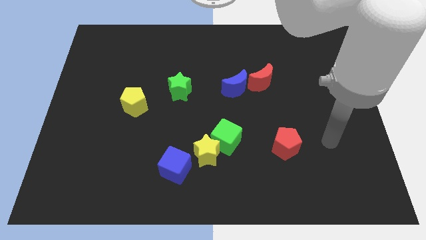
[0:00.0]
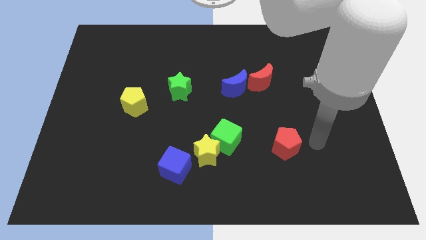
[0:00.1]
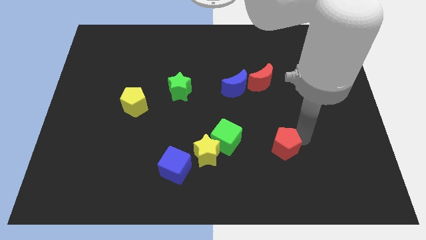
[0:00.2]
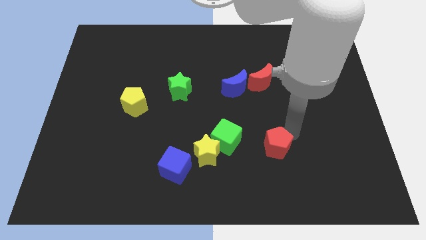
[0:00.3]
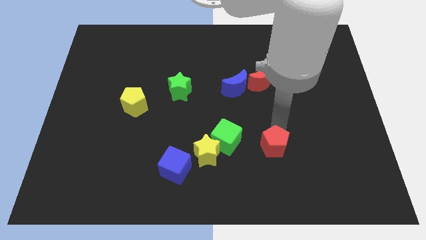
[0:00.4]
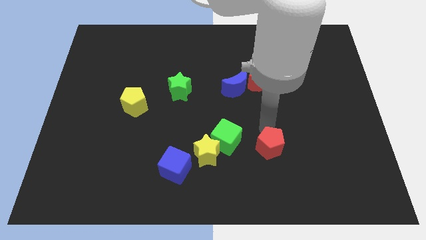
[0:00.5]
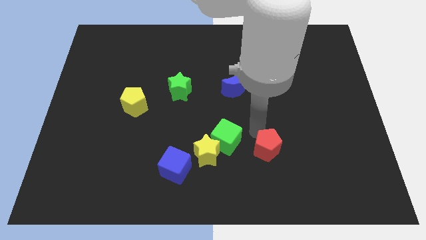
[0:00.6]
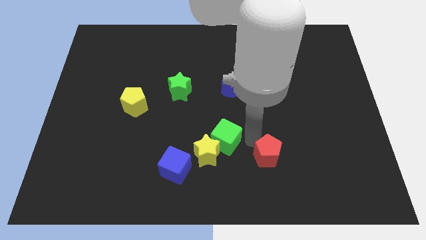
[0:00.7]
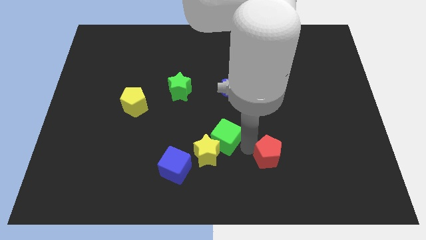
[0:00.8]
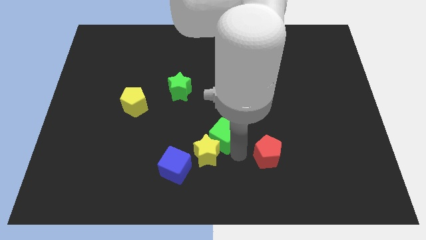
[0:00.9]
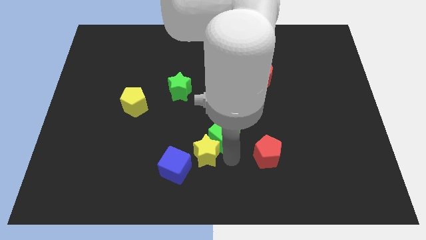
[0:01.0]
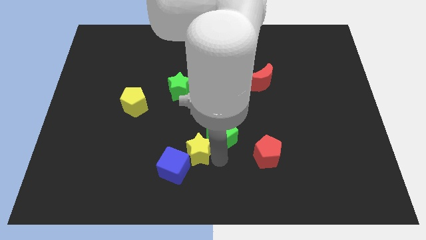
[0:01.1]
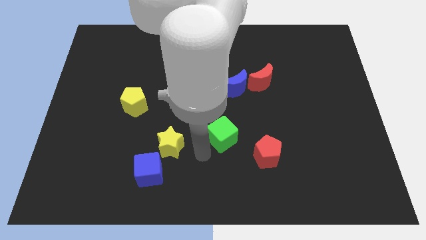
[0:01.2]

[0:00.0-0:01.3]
move the green cube away from the yellow star

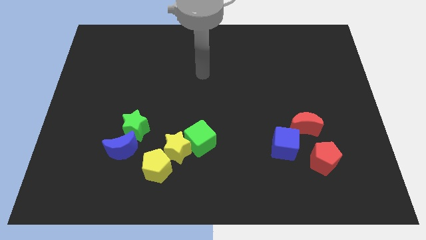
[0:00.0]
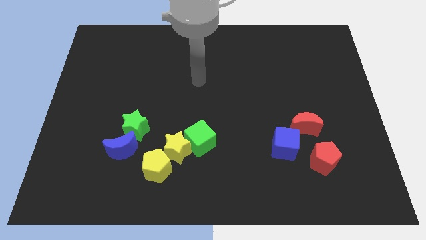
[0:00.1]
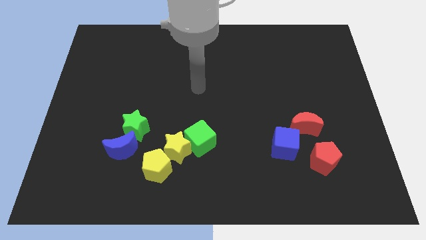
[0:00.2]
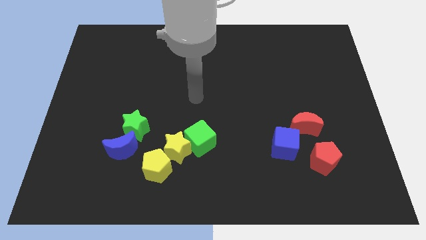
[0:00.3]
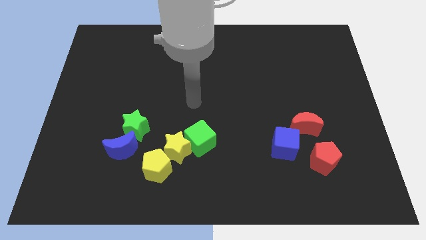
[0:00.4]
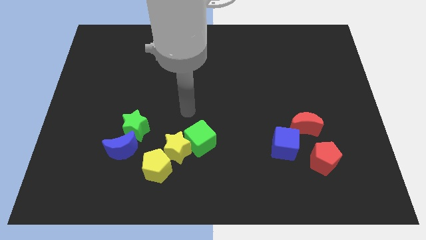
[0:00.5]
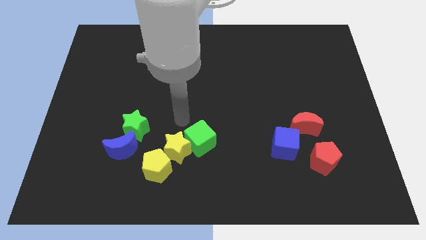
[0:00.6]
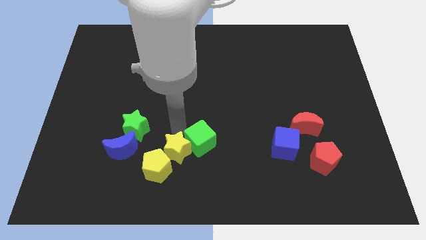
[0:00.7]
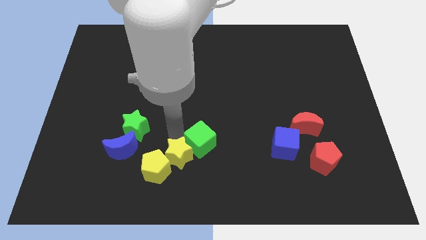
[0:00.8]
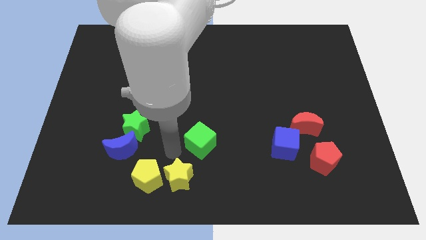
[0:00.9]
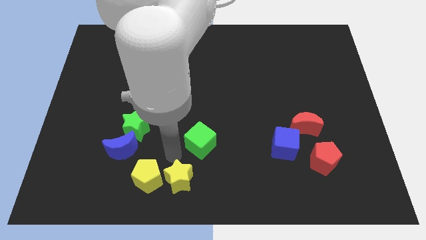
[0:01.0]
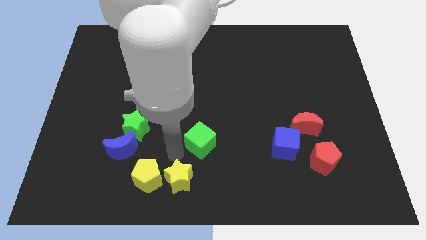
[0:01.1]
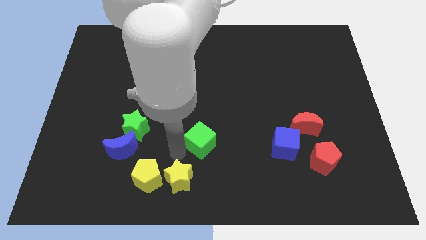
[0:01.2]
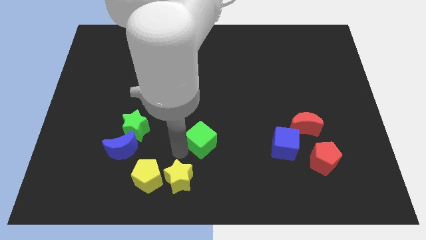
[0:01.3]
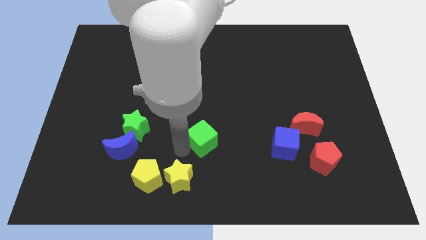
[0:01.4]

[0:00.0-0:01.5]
pull the green cube apart from the yellow star

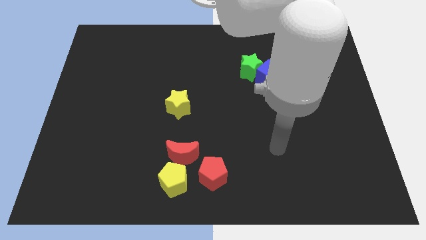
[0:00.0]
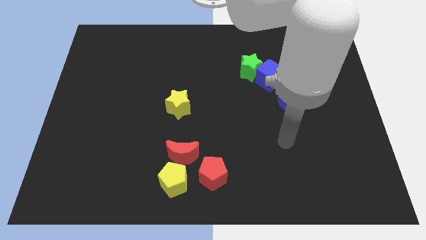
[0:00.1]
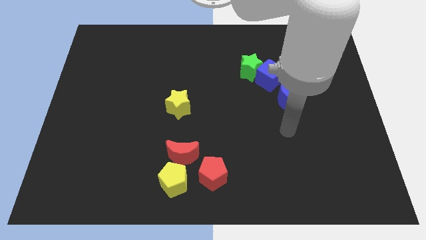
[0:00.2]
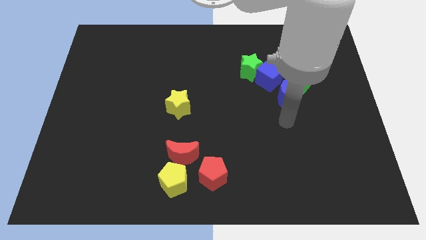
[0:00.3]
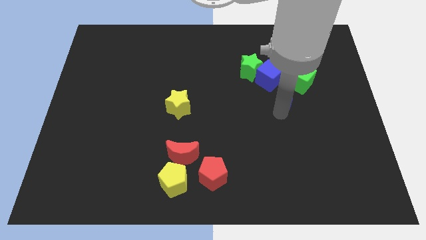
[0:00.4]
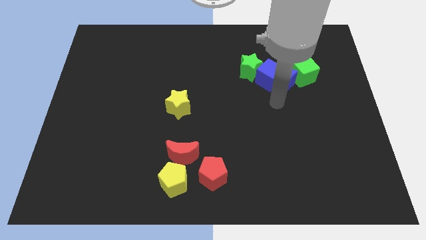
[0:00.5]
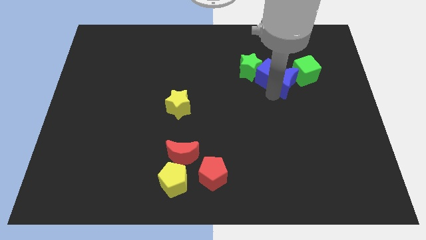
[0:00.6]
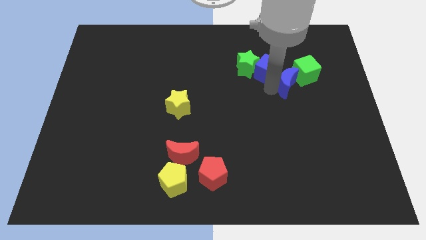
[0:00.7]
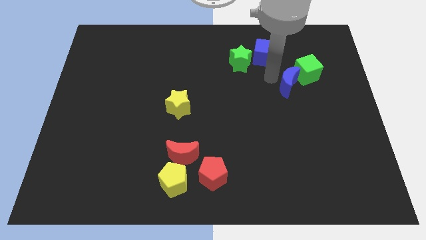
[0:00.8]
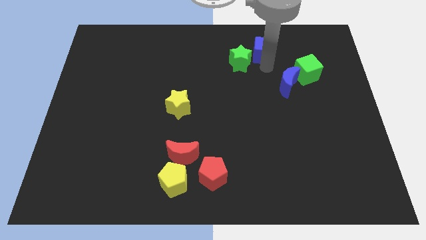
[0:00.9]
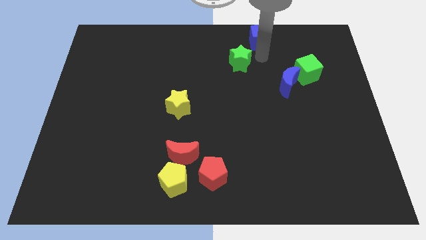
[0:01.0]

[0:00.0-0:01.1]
separate the green star from the blue cube

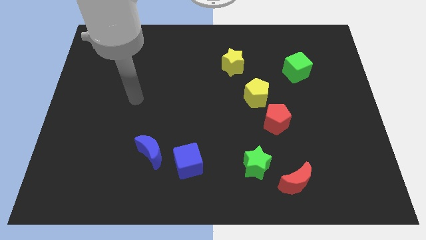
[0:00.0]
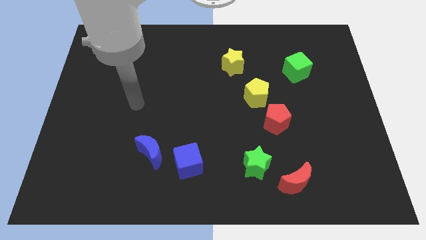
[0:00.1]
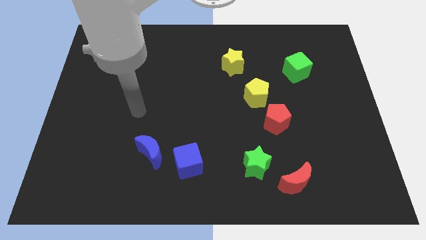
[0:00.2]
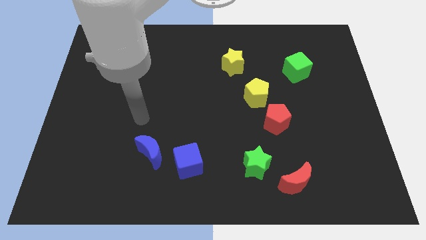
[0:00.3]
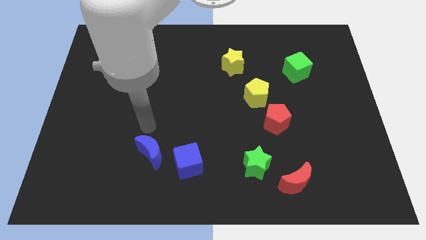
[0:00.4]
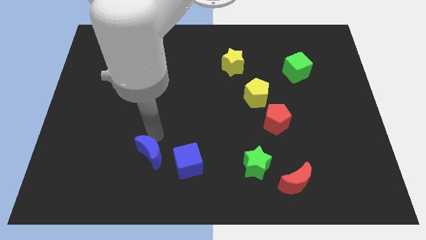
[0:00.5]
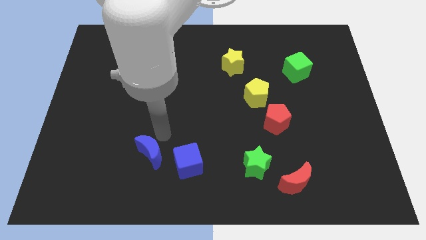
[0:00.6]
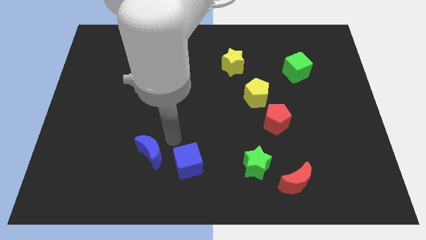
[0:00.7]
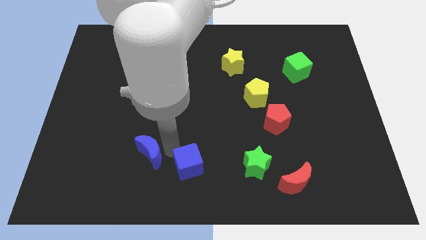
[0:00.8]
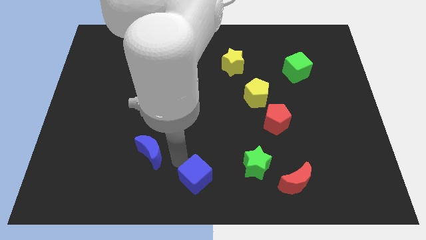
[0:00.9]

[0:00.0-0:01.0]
pull the blue moon apart from the blue cube

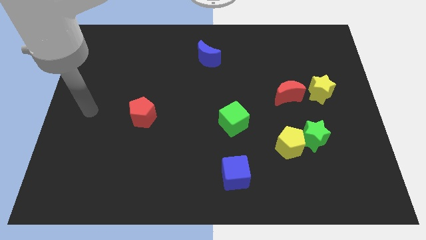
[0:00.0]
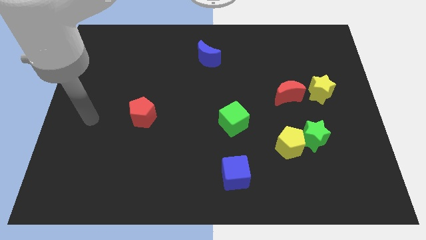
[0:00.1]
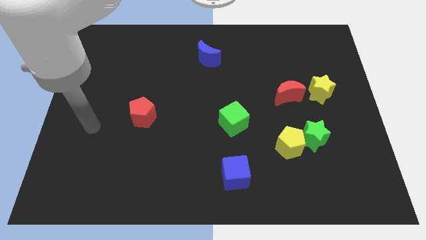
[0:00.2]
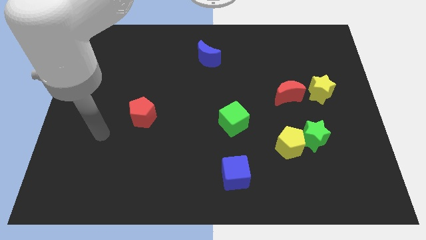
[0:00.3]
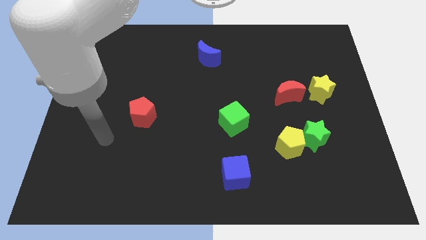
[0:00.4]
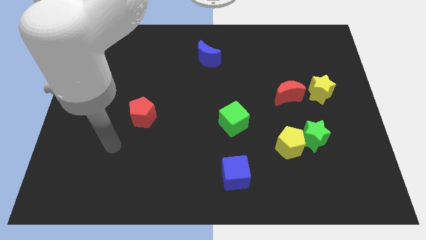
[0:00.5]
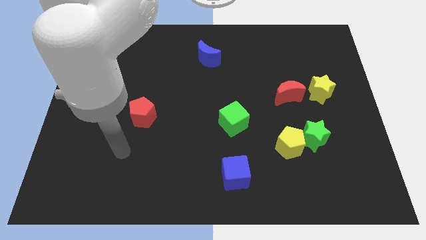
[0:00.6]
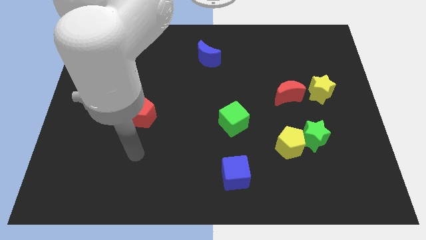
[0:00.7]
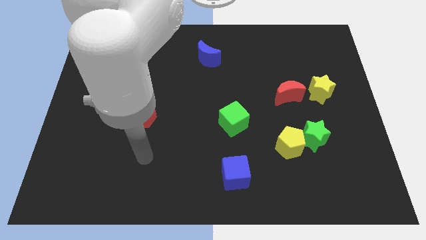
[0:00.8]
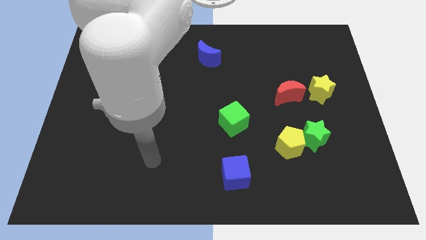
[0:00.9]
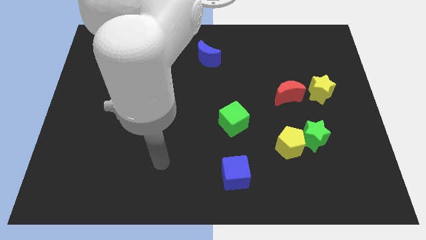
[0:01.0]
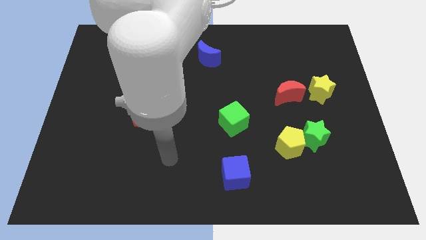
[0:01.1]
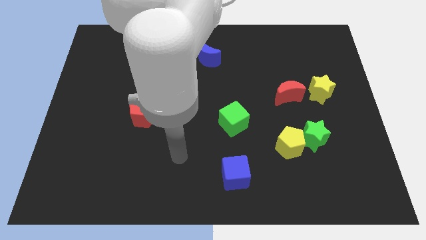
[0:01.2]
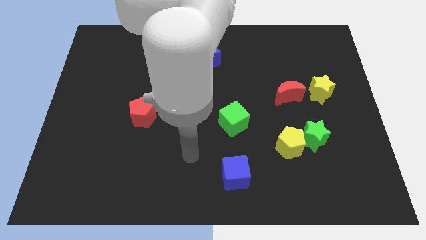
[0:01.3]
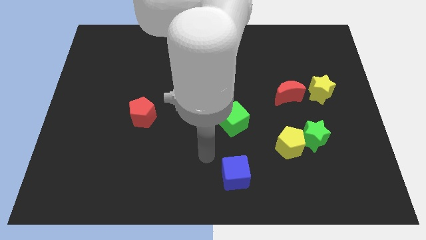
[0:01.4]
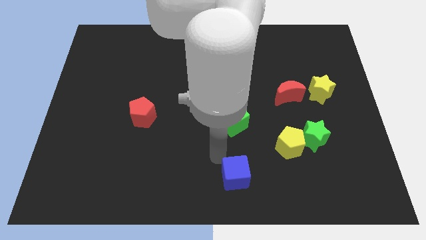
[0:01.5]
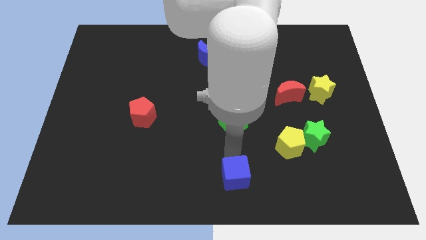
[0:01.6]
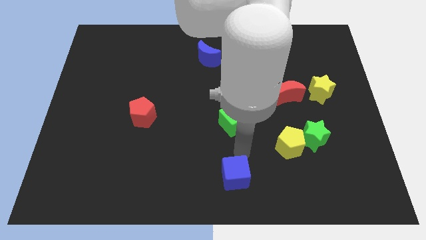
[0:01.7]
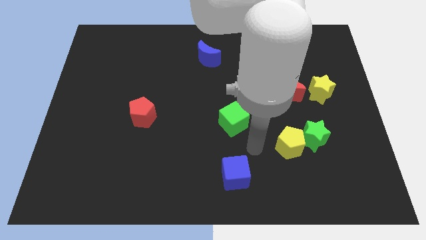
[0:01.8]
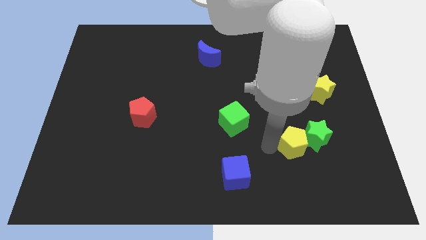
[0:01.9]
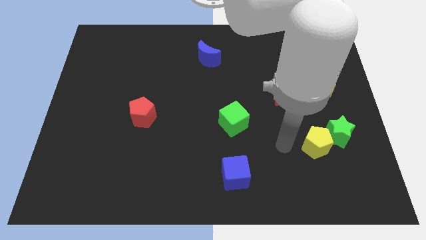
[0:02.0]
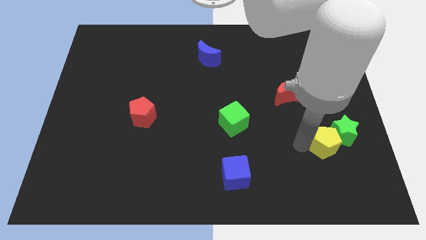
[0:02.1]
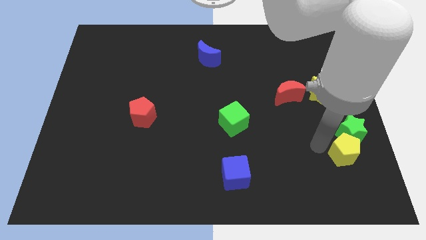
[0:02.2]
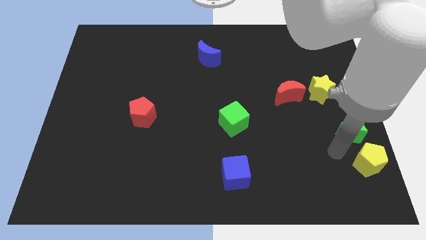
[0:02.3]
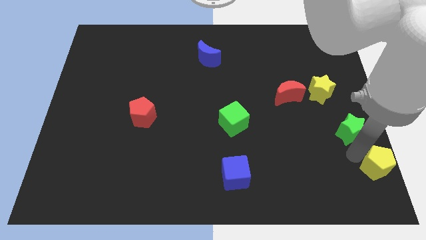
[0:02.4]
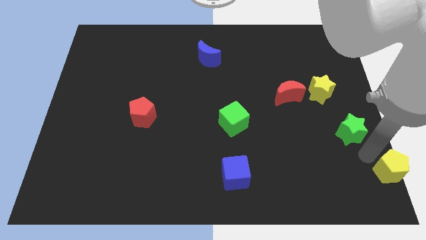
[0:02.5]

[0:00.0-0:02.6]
pull the green star apart from the yellow pentagon

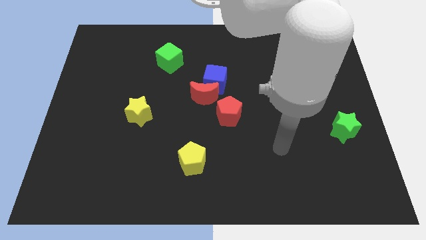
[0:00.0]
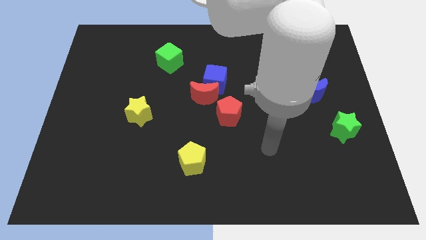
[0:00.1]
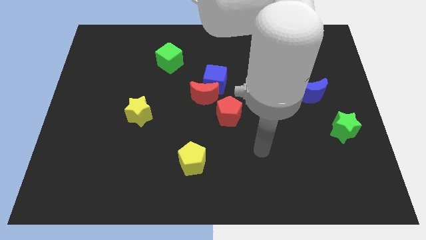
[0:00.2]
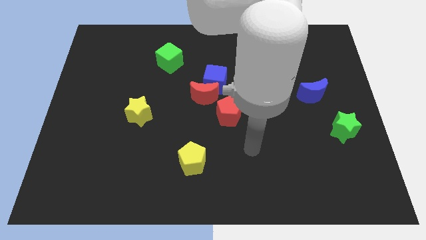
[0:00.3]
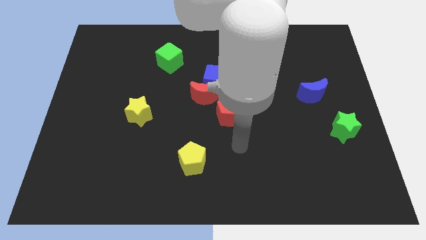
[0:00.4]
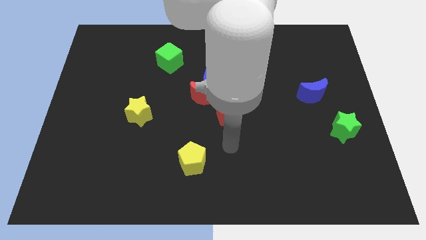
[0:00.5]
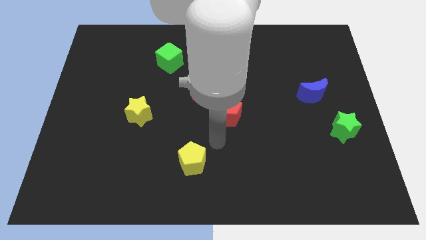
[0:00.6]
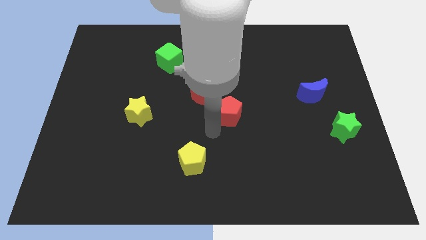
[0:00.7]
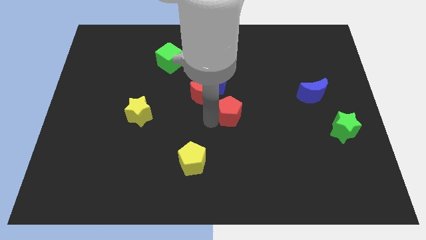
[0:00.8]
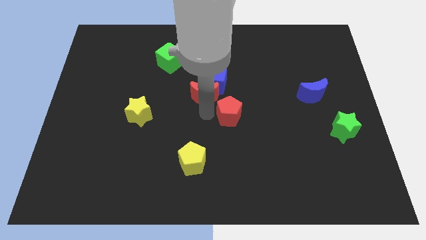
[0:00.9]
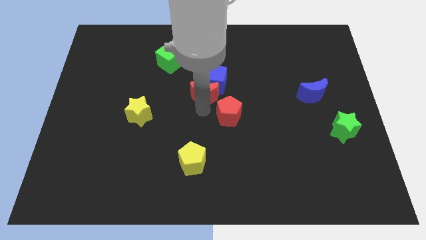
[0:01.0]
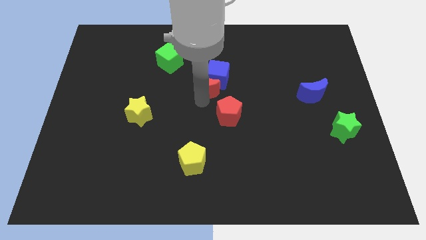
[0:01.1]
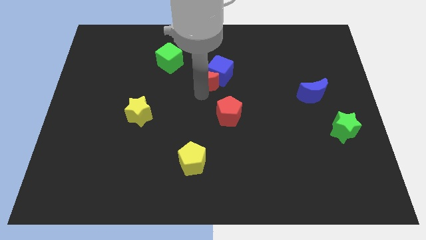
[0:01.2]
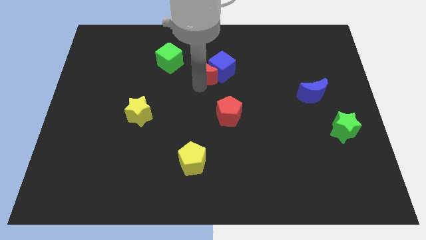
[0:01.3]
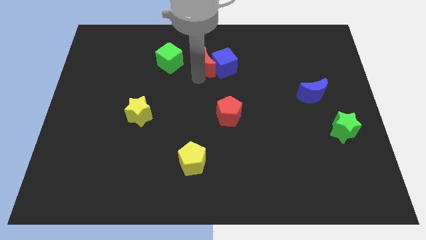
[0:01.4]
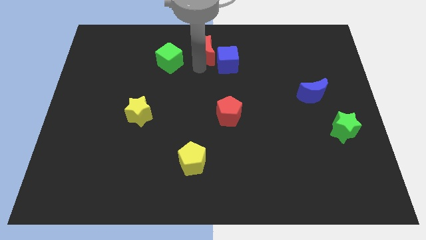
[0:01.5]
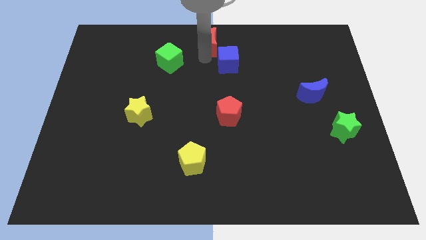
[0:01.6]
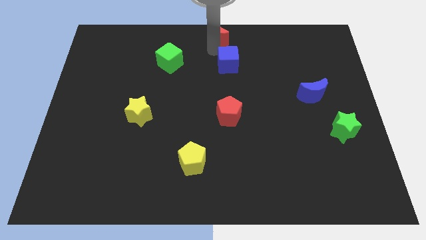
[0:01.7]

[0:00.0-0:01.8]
move the blue cube away from the red moon

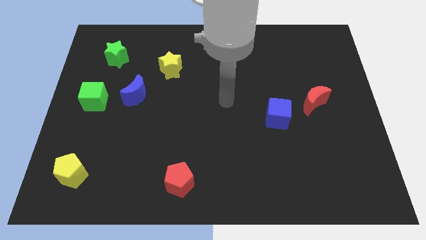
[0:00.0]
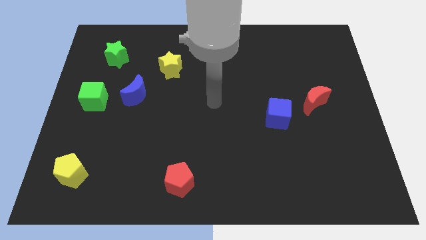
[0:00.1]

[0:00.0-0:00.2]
separate the blue moon from the green cube
